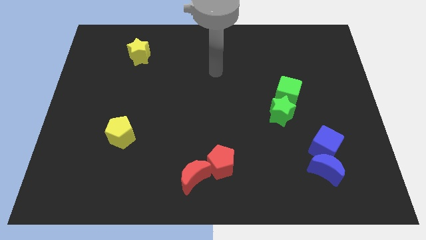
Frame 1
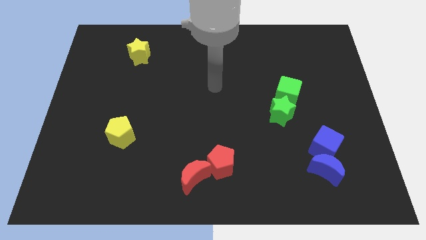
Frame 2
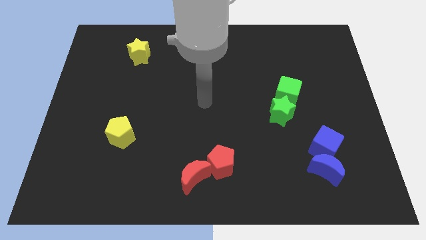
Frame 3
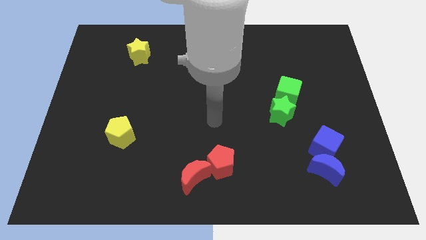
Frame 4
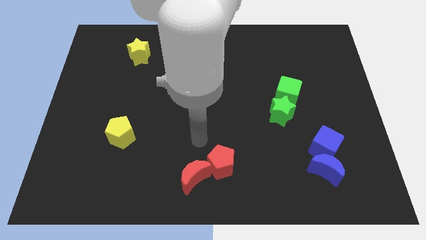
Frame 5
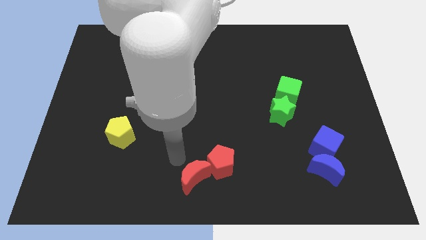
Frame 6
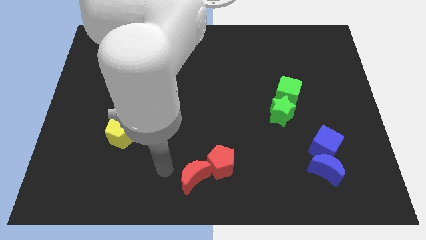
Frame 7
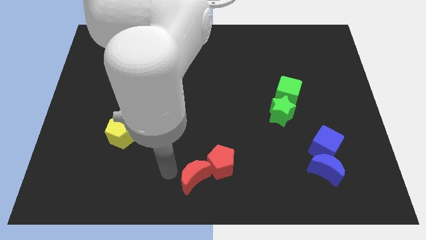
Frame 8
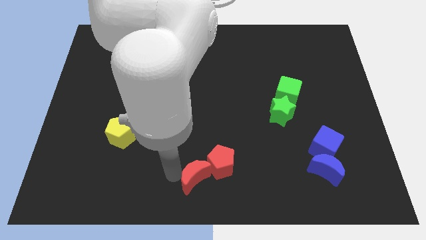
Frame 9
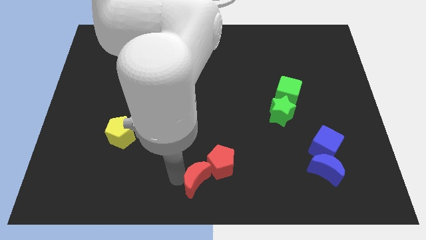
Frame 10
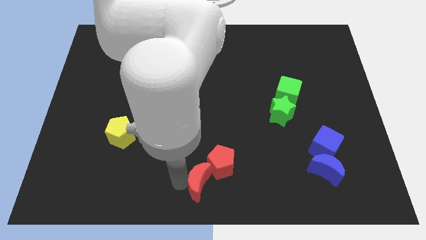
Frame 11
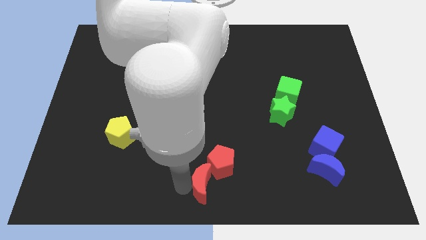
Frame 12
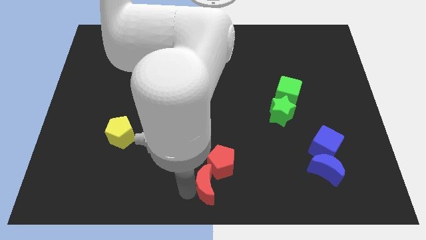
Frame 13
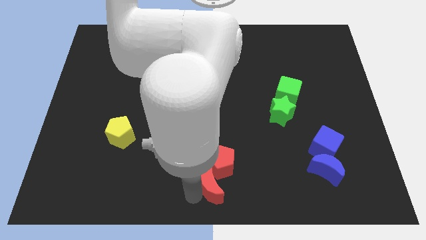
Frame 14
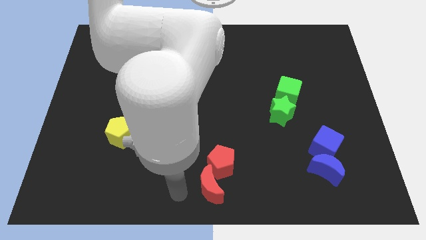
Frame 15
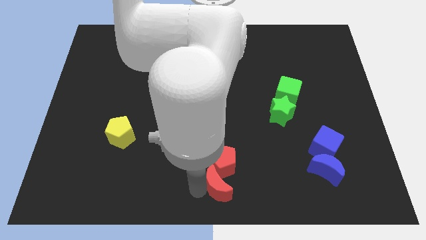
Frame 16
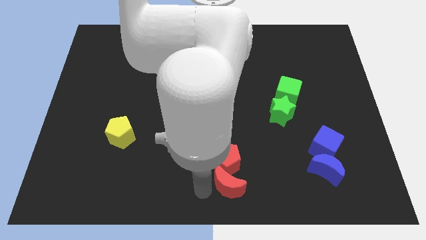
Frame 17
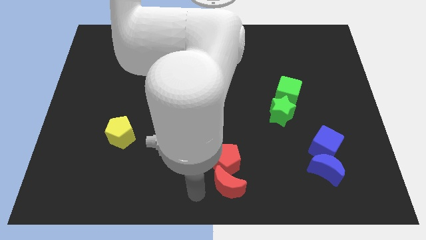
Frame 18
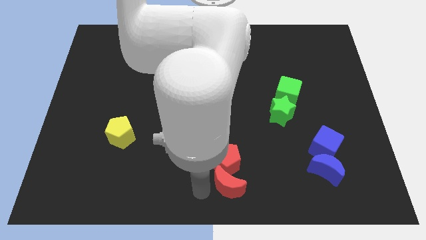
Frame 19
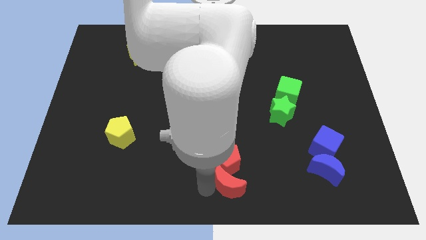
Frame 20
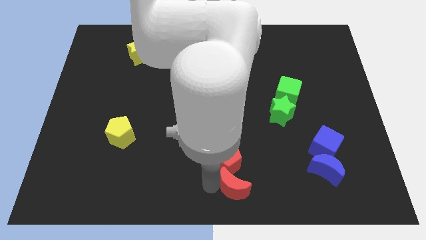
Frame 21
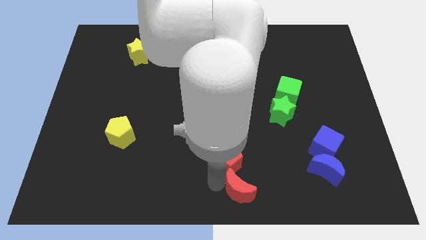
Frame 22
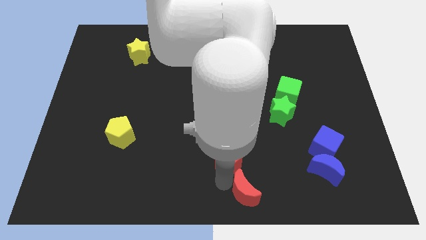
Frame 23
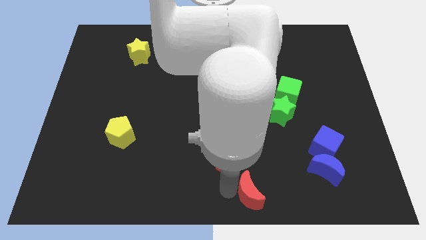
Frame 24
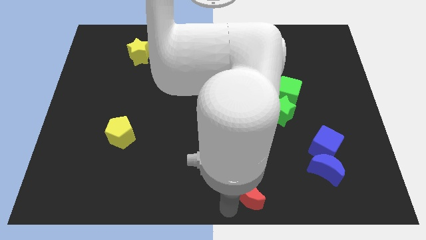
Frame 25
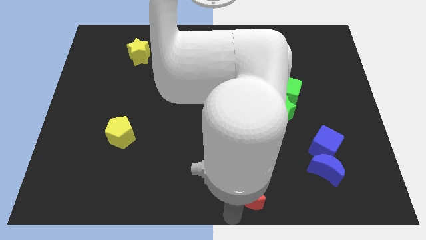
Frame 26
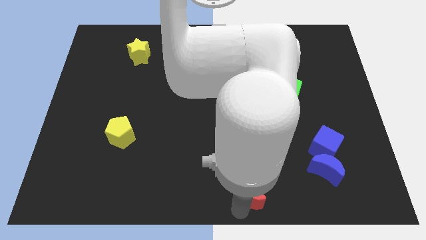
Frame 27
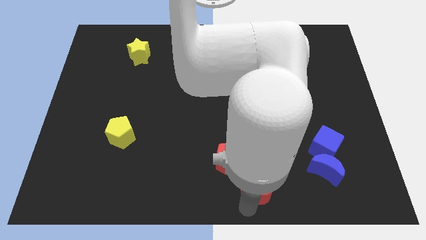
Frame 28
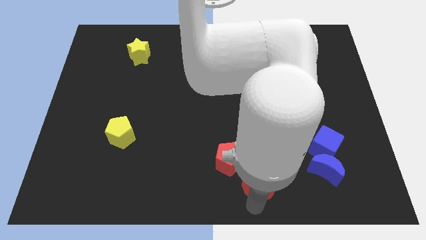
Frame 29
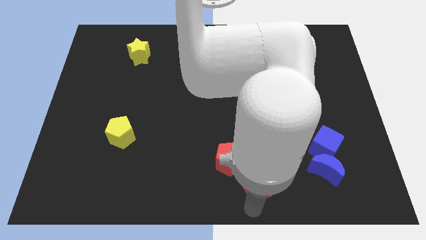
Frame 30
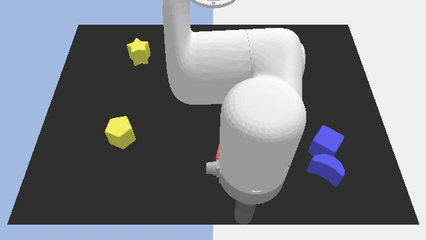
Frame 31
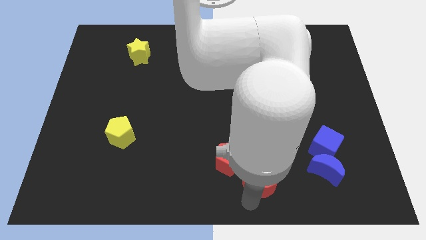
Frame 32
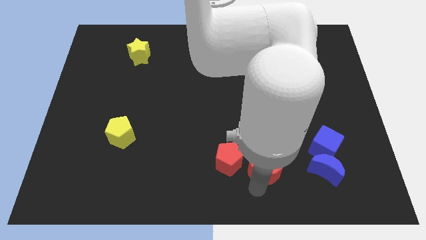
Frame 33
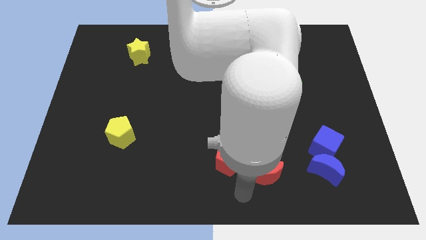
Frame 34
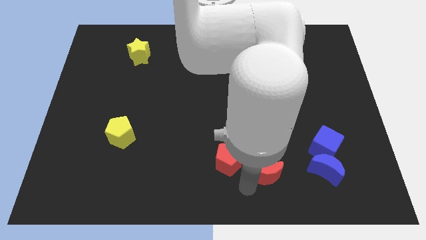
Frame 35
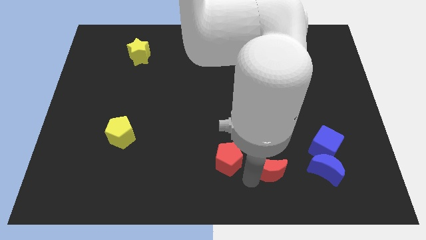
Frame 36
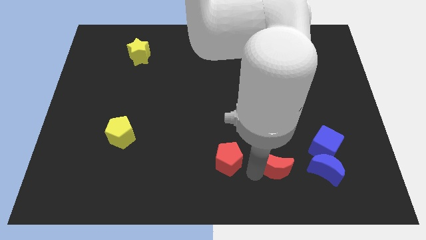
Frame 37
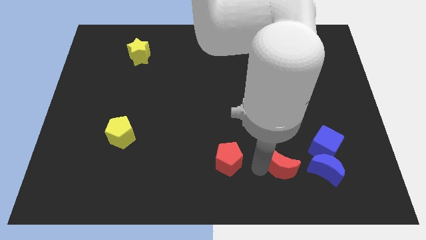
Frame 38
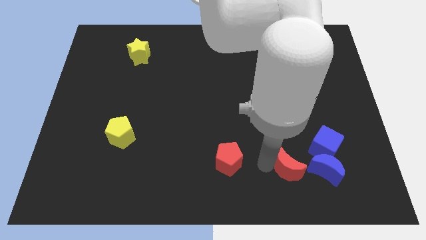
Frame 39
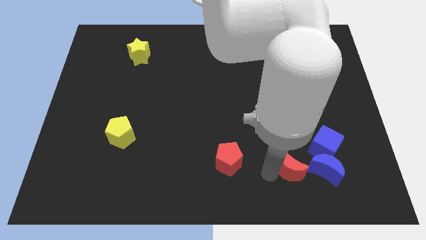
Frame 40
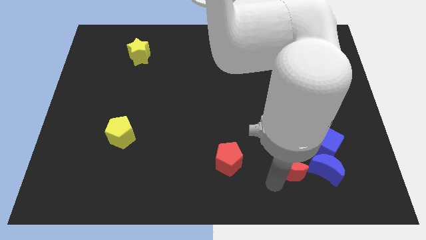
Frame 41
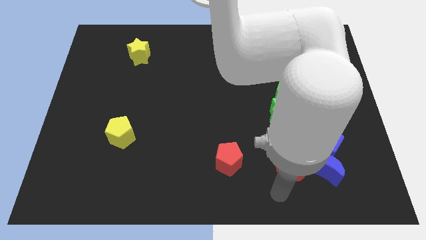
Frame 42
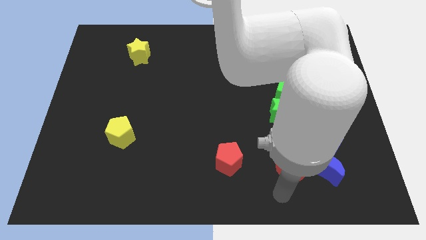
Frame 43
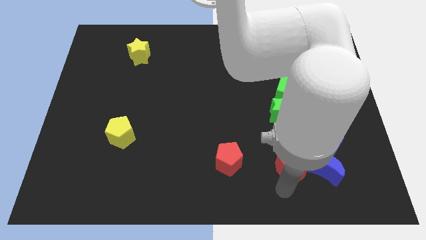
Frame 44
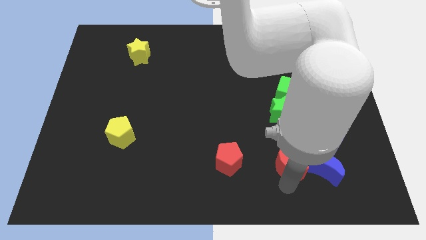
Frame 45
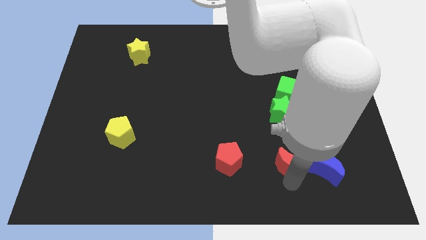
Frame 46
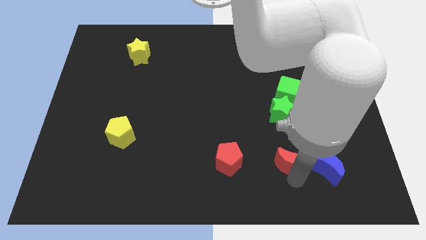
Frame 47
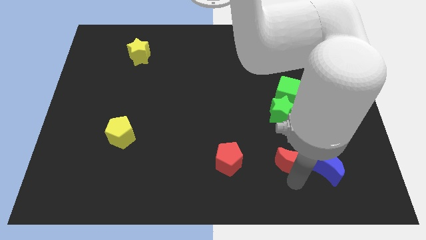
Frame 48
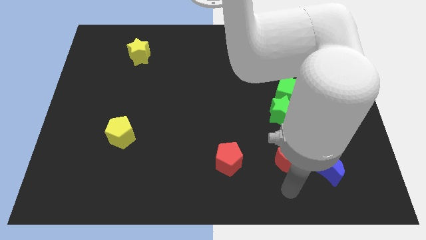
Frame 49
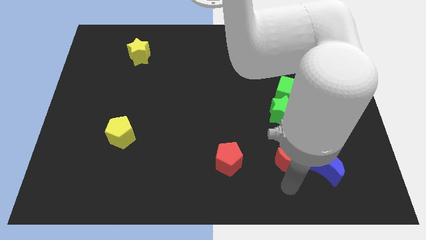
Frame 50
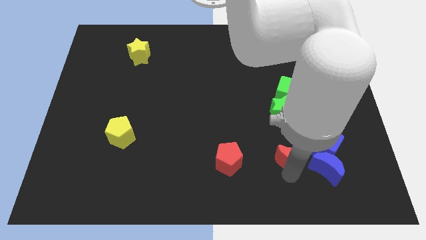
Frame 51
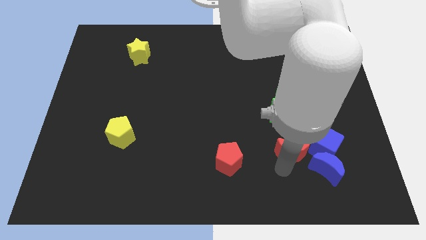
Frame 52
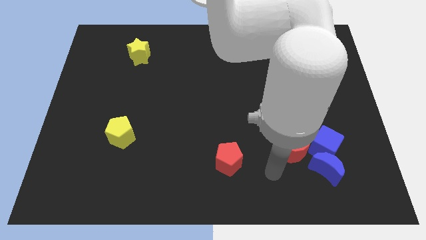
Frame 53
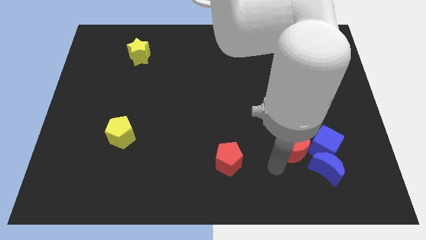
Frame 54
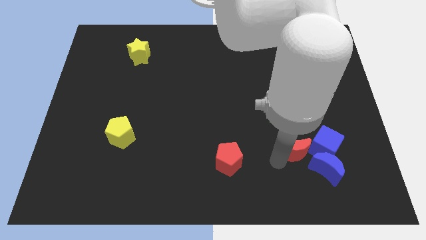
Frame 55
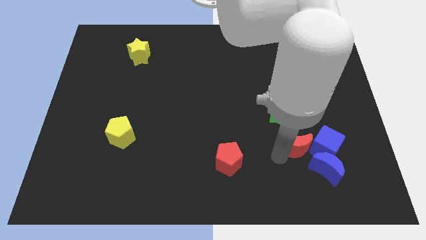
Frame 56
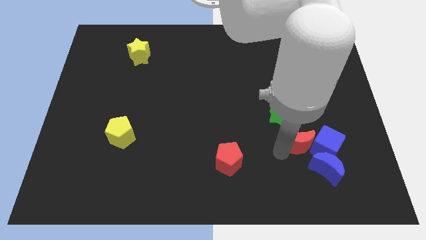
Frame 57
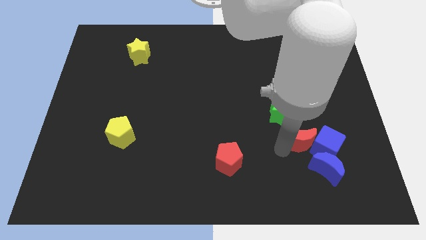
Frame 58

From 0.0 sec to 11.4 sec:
put the red moon to the top of the blue moon

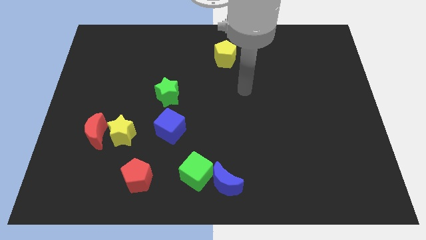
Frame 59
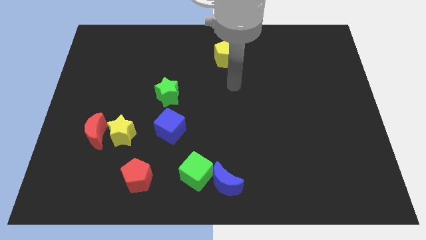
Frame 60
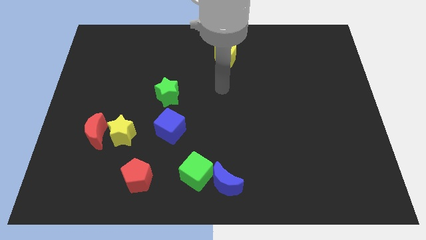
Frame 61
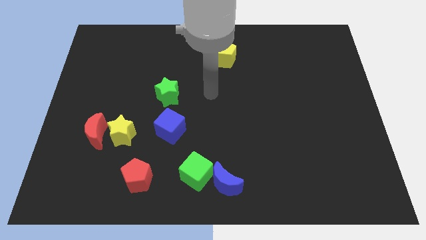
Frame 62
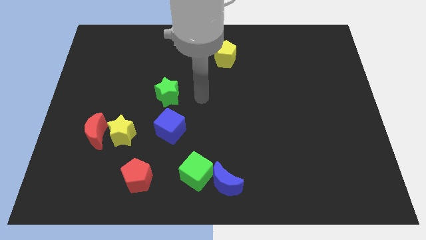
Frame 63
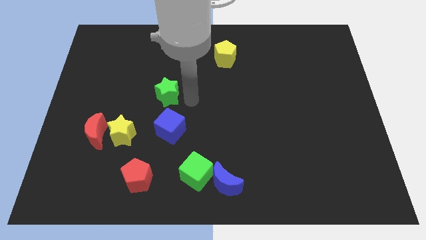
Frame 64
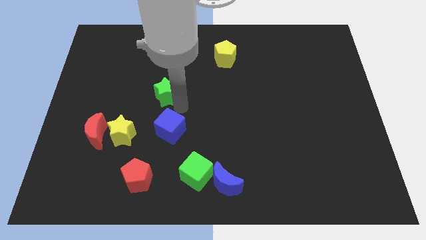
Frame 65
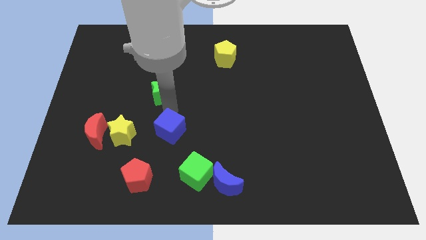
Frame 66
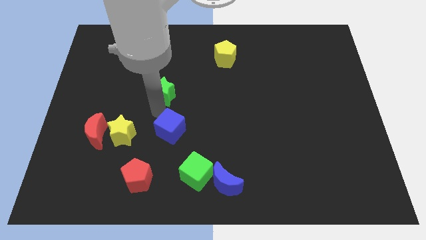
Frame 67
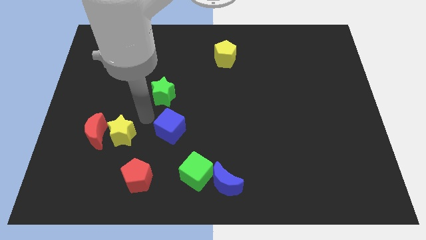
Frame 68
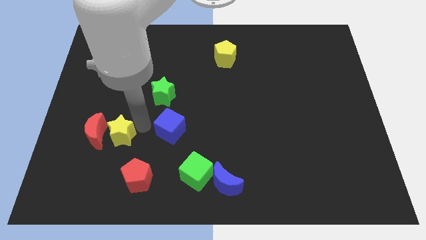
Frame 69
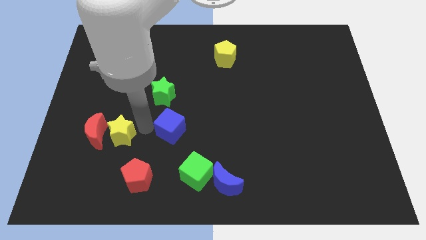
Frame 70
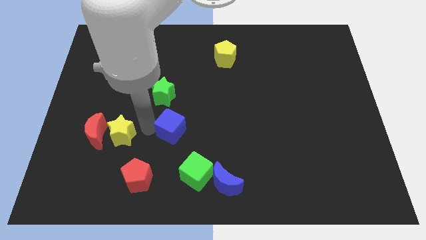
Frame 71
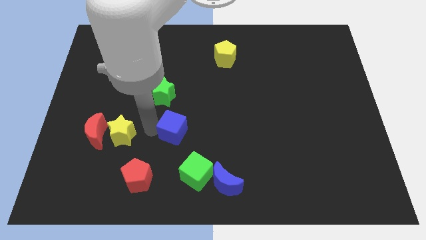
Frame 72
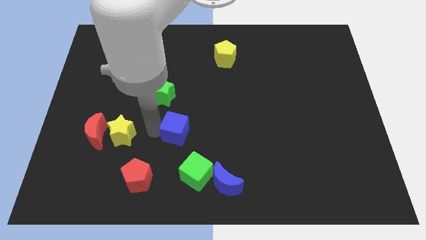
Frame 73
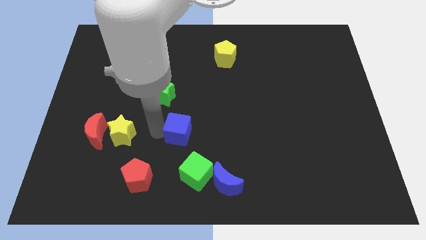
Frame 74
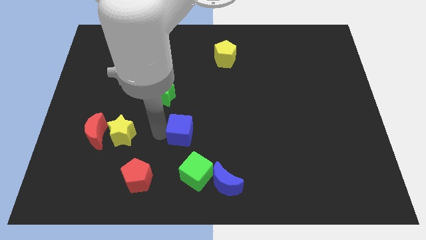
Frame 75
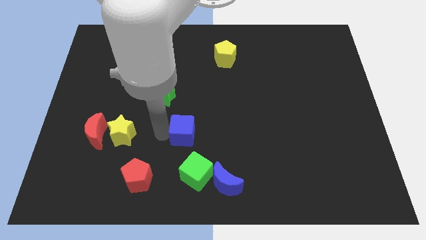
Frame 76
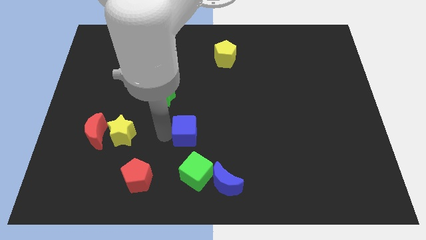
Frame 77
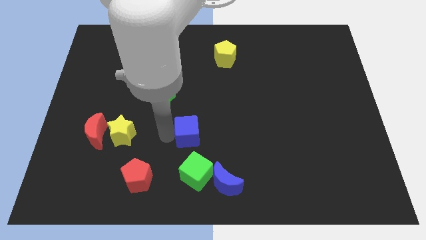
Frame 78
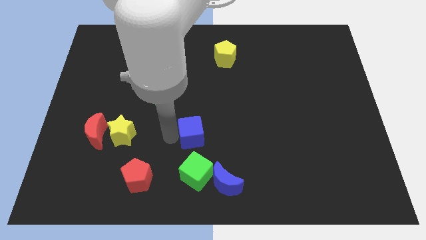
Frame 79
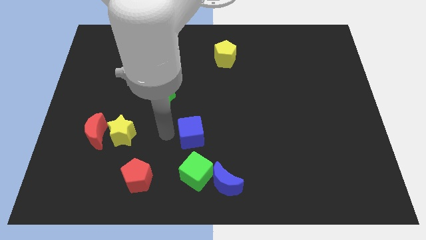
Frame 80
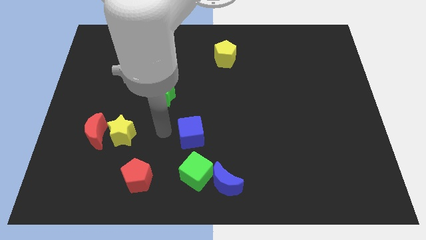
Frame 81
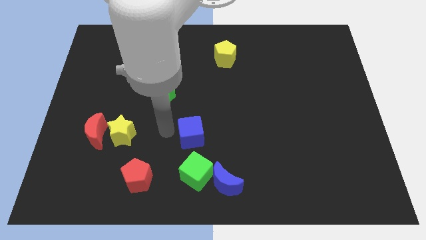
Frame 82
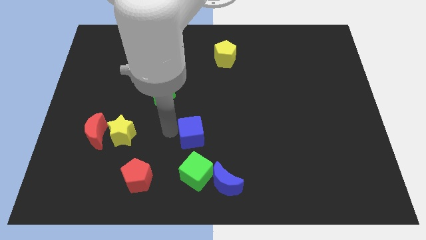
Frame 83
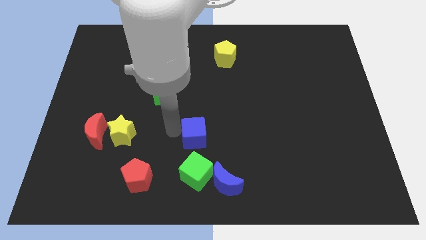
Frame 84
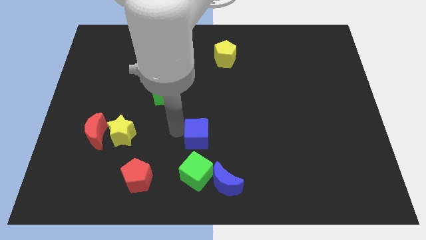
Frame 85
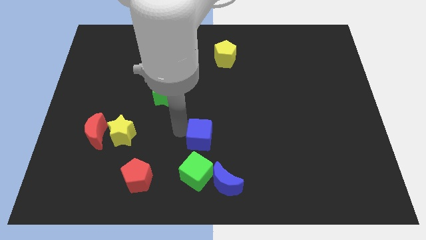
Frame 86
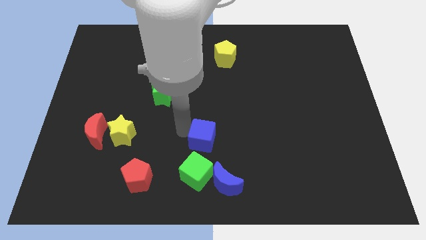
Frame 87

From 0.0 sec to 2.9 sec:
put the blue cube above the blue moon
